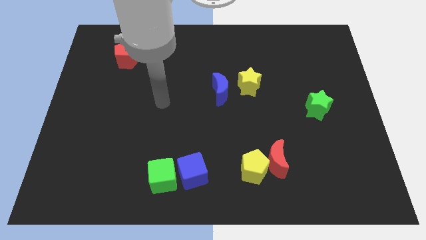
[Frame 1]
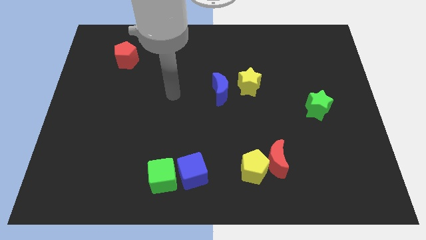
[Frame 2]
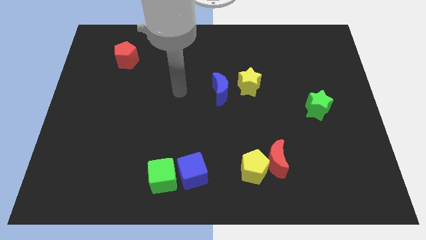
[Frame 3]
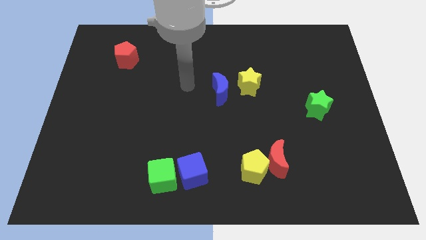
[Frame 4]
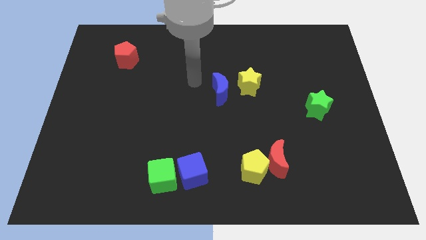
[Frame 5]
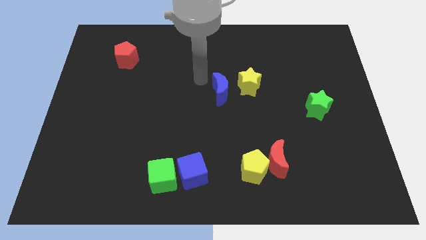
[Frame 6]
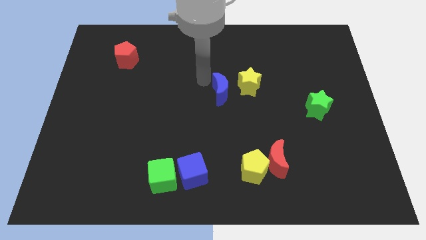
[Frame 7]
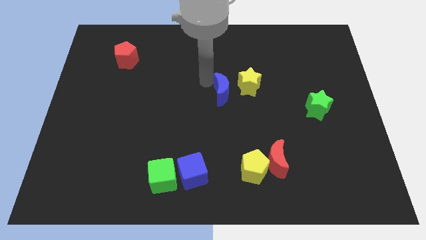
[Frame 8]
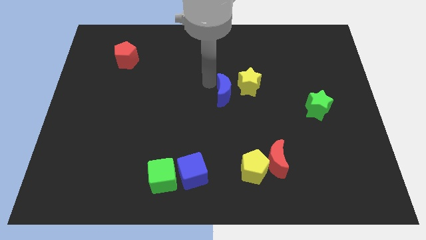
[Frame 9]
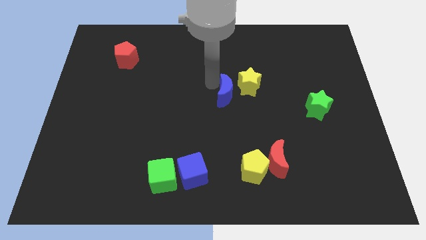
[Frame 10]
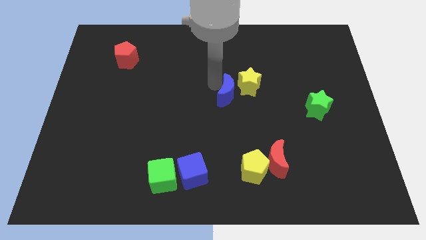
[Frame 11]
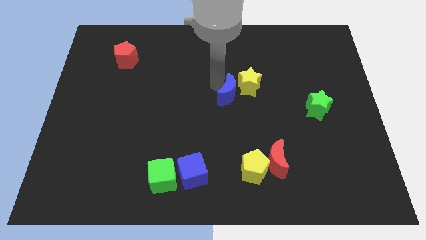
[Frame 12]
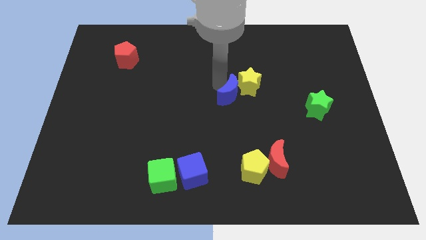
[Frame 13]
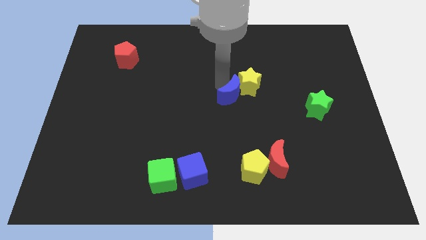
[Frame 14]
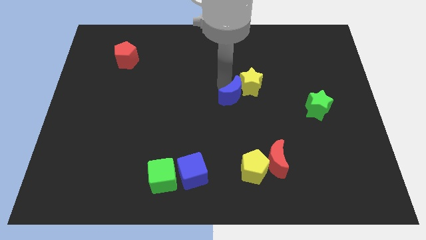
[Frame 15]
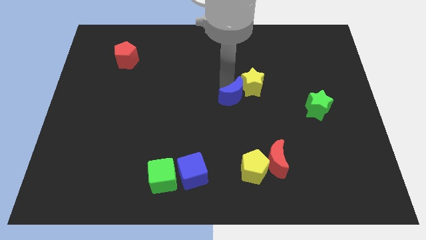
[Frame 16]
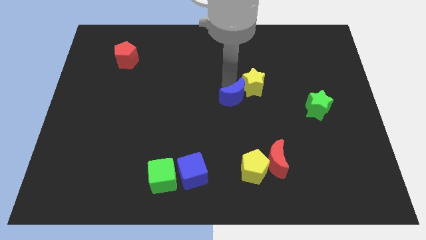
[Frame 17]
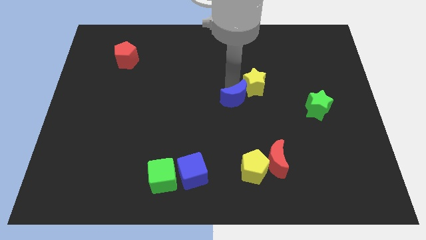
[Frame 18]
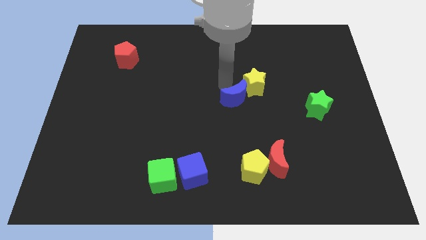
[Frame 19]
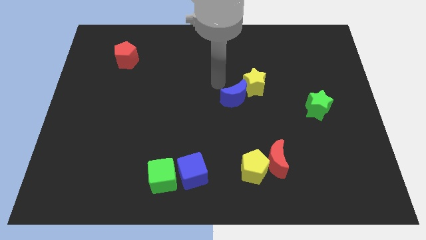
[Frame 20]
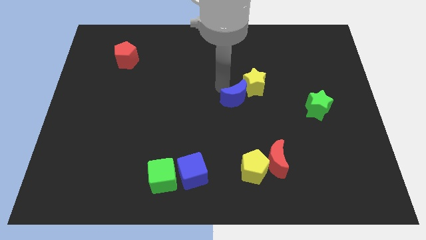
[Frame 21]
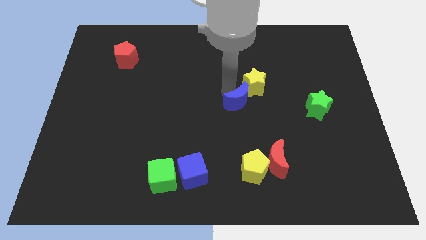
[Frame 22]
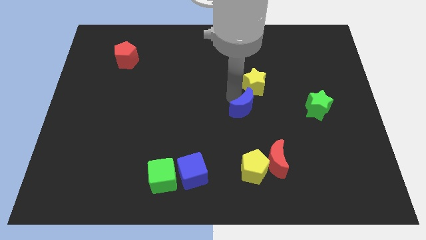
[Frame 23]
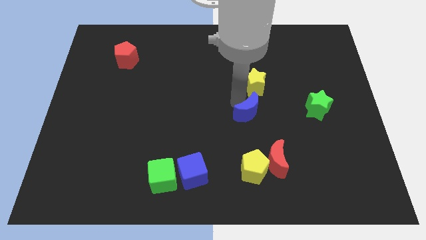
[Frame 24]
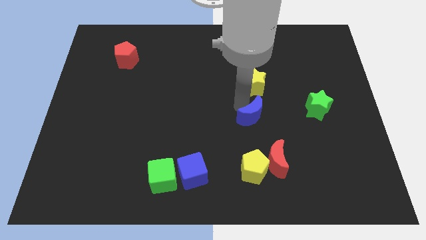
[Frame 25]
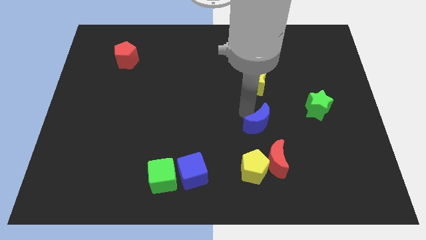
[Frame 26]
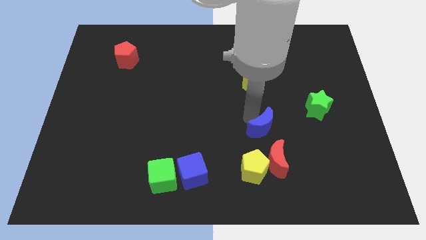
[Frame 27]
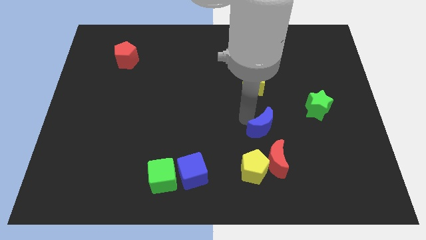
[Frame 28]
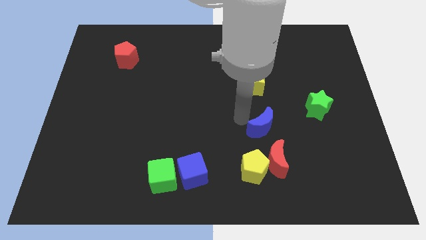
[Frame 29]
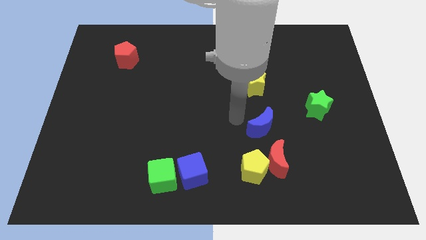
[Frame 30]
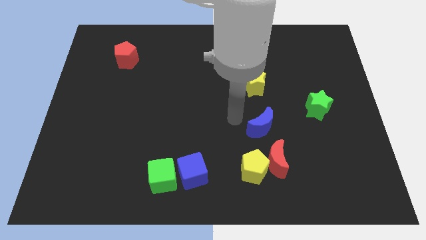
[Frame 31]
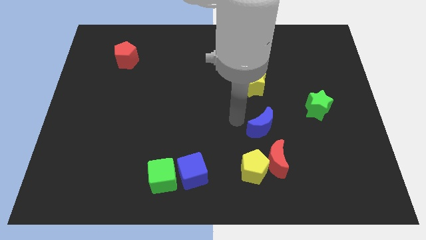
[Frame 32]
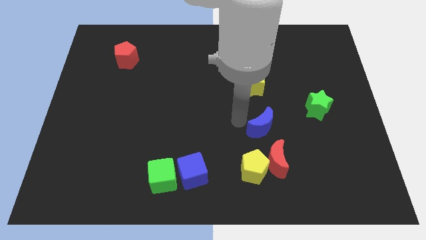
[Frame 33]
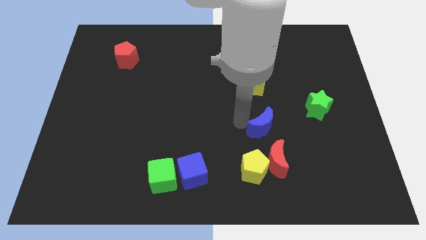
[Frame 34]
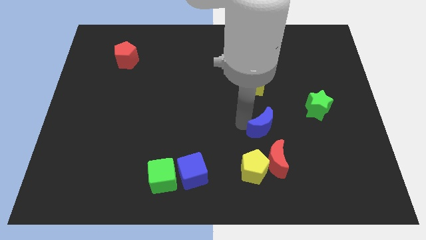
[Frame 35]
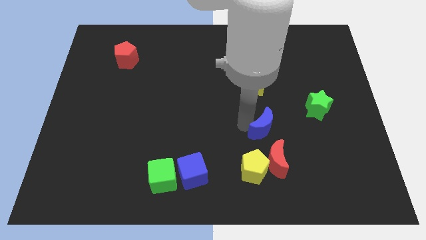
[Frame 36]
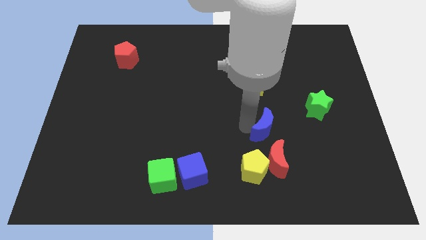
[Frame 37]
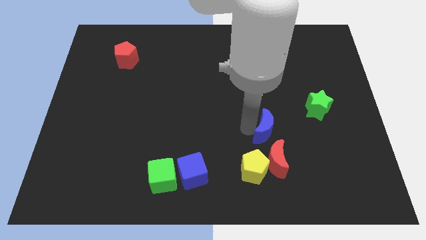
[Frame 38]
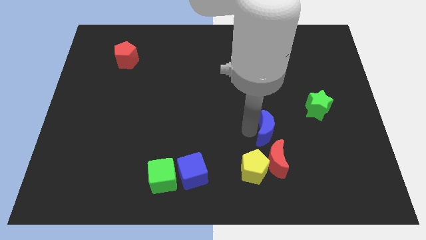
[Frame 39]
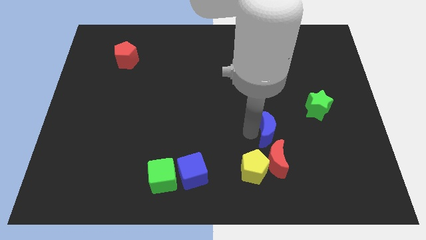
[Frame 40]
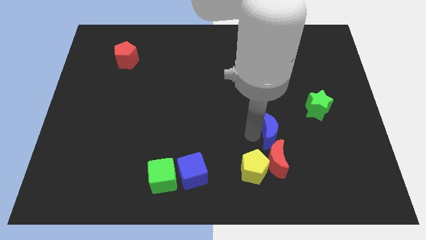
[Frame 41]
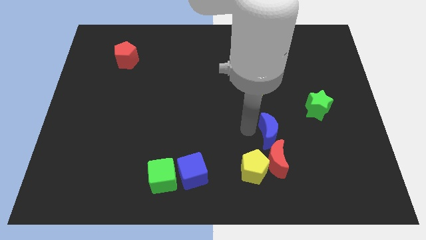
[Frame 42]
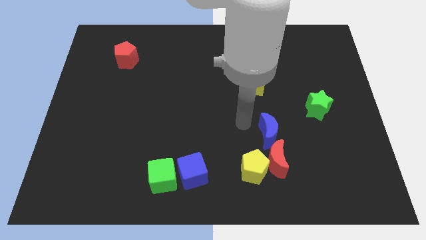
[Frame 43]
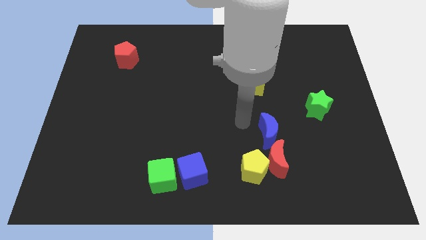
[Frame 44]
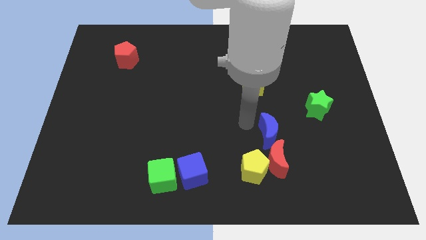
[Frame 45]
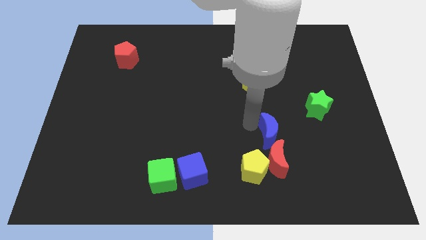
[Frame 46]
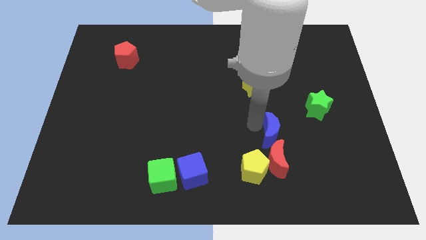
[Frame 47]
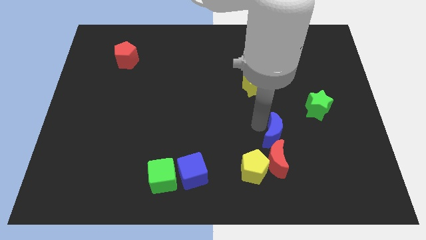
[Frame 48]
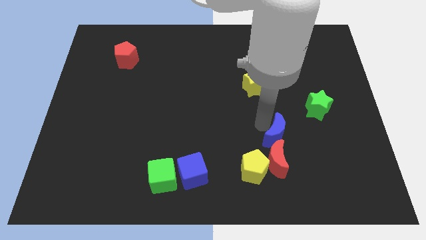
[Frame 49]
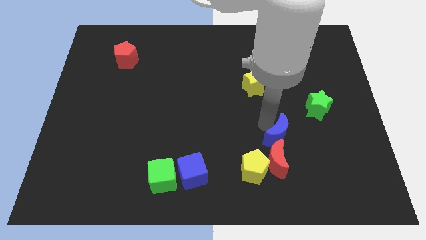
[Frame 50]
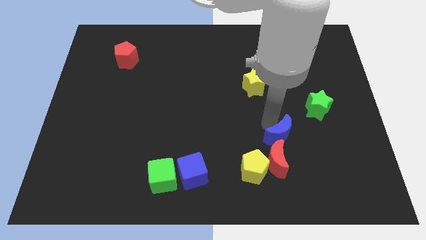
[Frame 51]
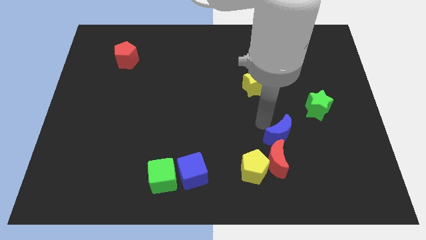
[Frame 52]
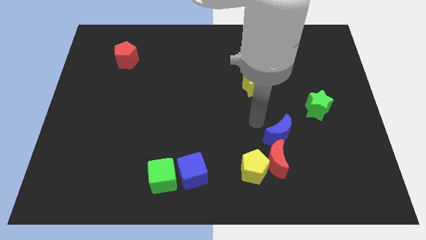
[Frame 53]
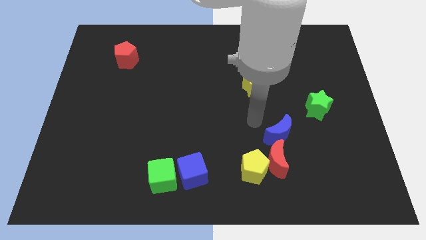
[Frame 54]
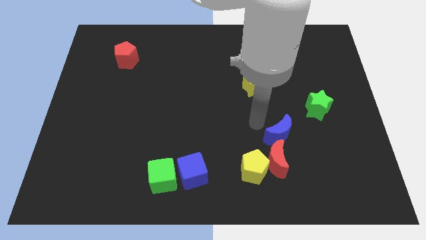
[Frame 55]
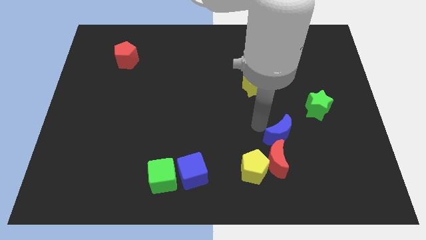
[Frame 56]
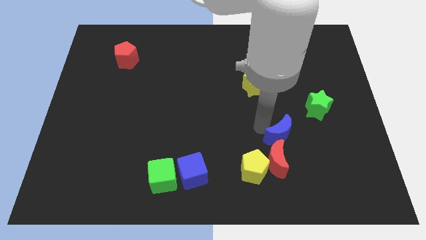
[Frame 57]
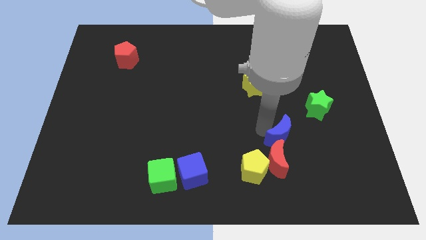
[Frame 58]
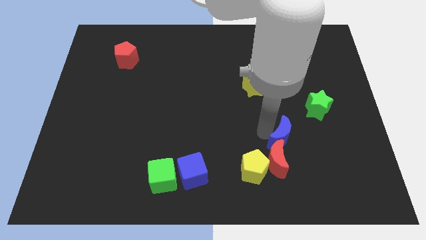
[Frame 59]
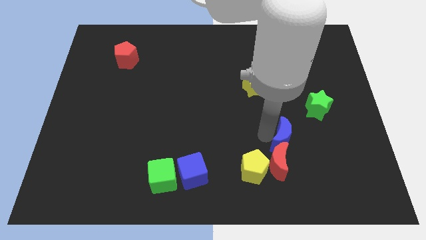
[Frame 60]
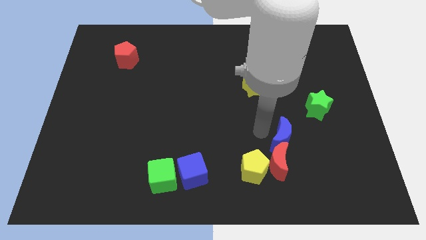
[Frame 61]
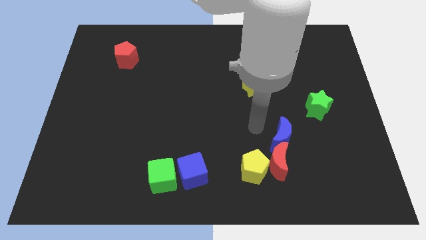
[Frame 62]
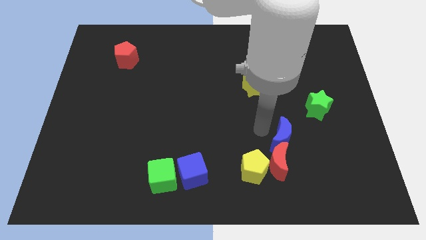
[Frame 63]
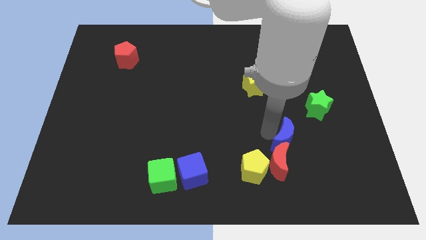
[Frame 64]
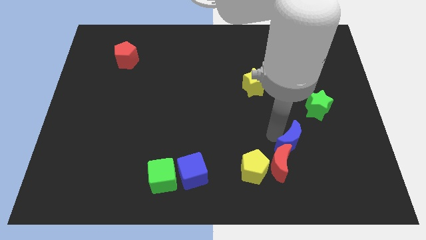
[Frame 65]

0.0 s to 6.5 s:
slide the blue moon down and to the right diagonally

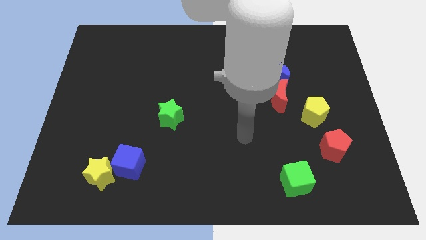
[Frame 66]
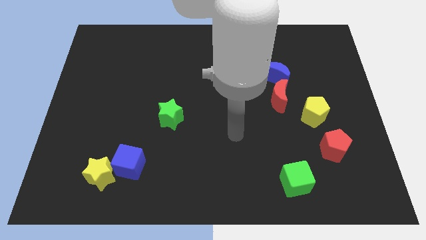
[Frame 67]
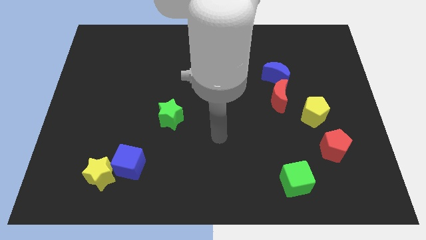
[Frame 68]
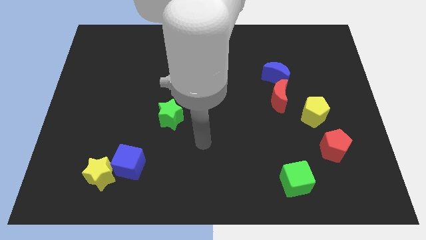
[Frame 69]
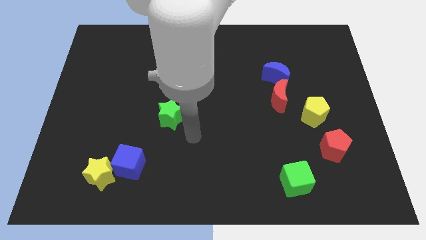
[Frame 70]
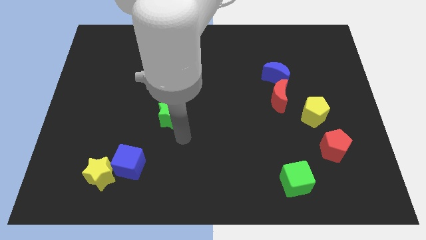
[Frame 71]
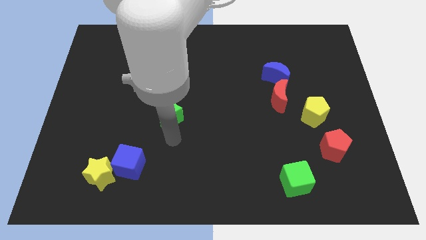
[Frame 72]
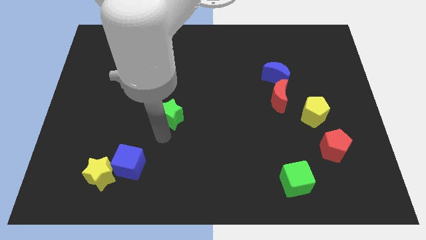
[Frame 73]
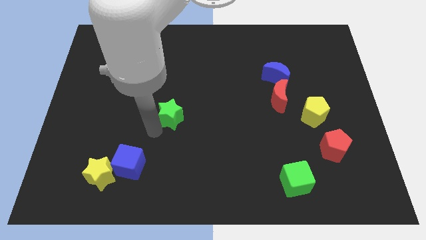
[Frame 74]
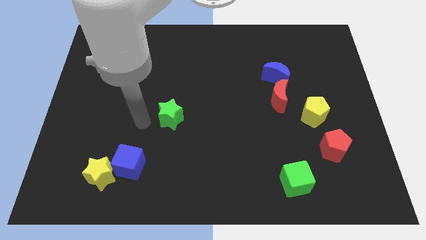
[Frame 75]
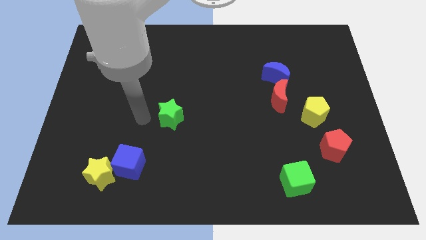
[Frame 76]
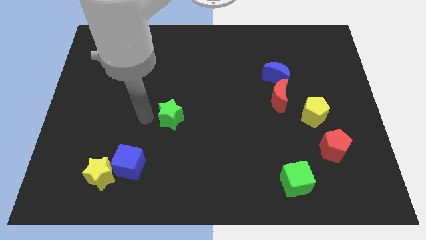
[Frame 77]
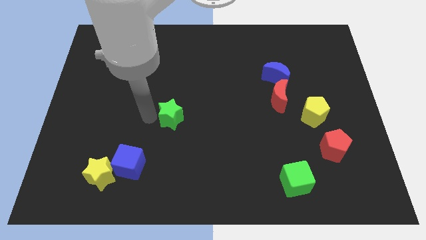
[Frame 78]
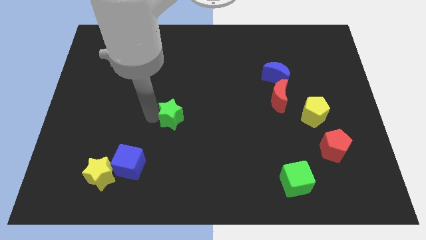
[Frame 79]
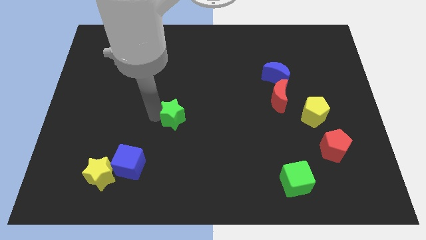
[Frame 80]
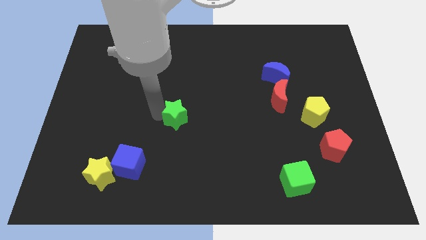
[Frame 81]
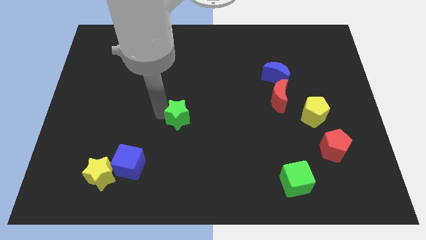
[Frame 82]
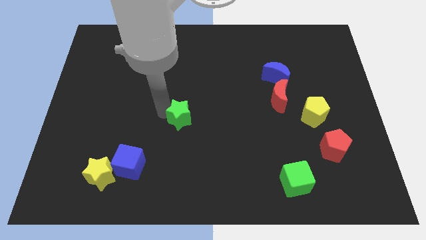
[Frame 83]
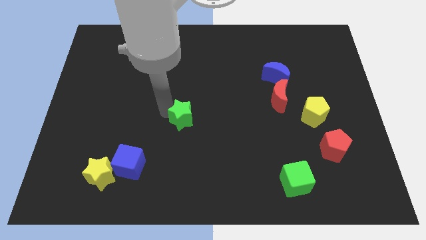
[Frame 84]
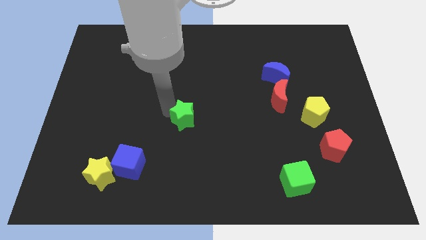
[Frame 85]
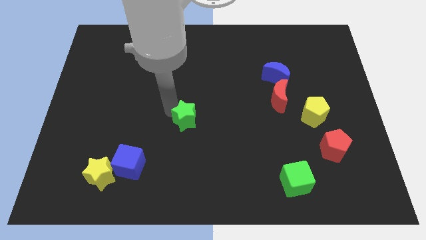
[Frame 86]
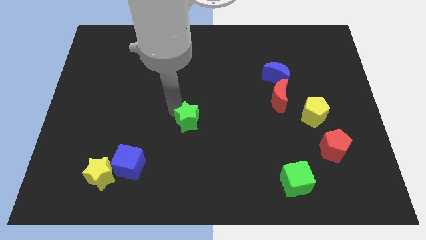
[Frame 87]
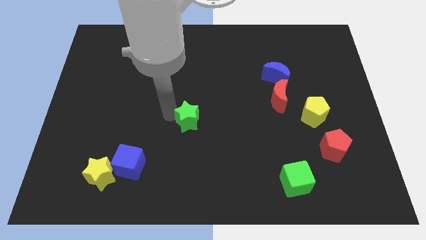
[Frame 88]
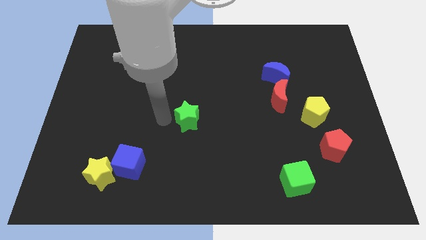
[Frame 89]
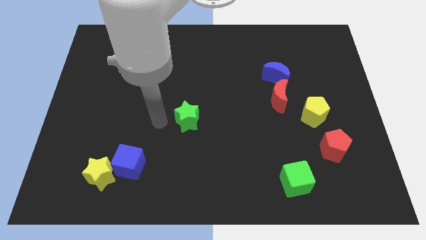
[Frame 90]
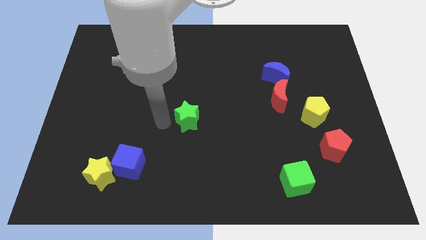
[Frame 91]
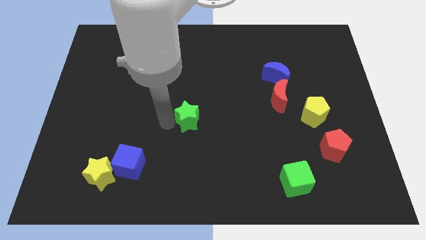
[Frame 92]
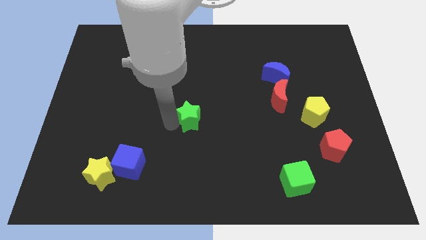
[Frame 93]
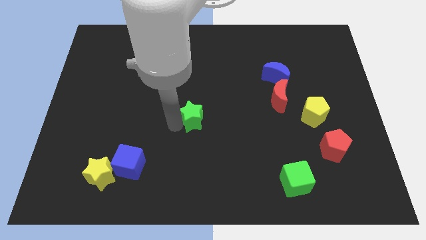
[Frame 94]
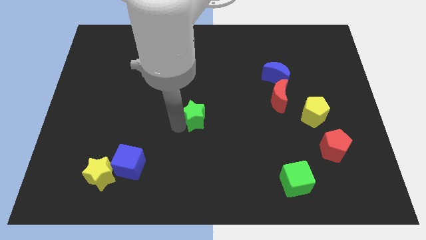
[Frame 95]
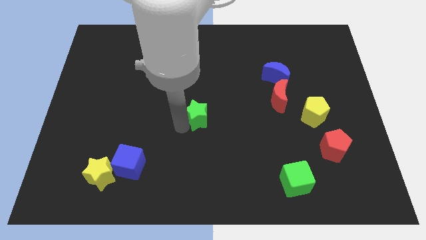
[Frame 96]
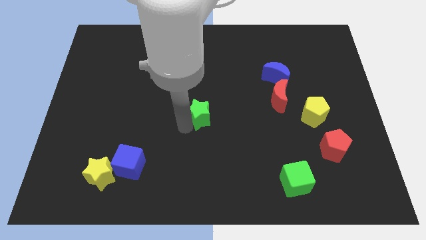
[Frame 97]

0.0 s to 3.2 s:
slightly push the green star right
